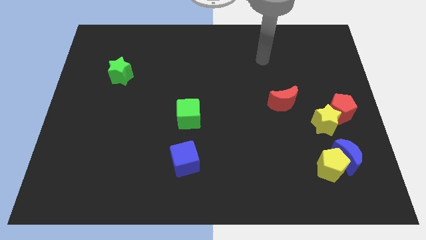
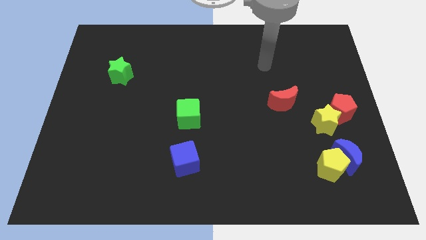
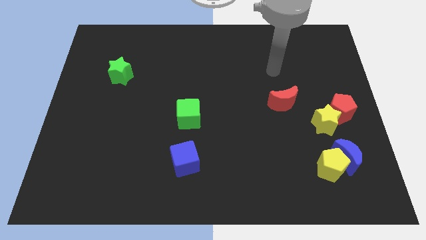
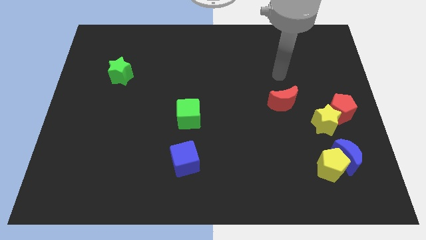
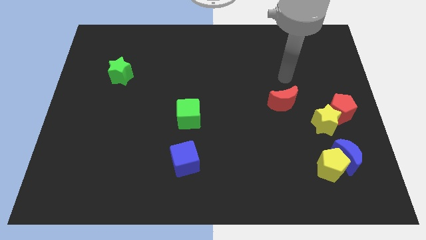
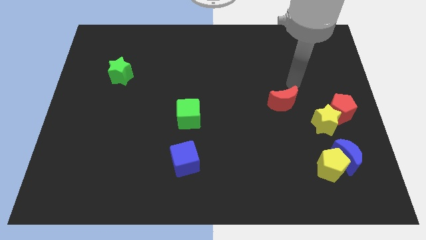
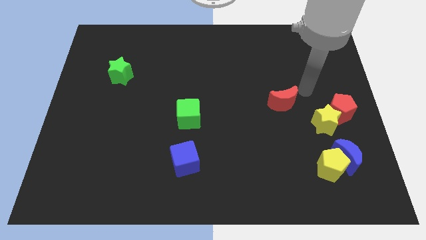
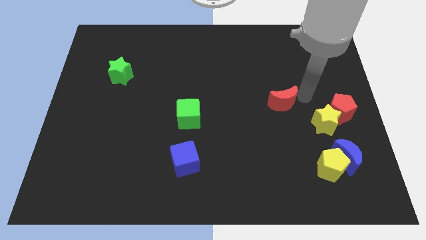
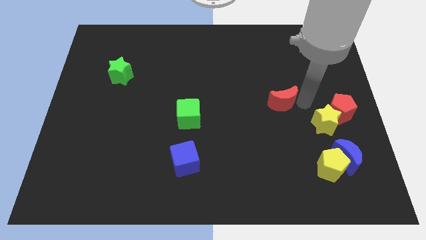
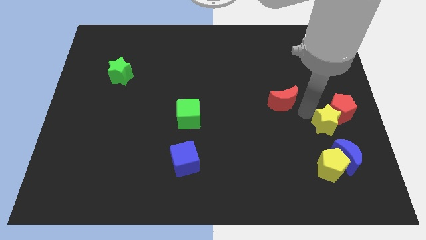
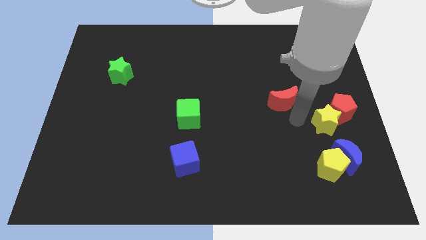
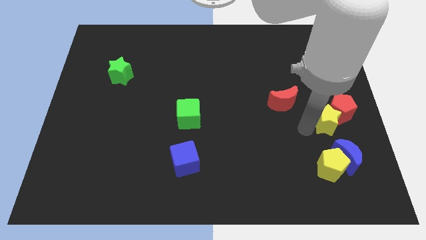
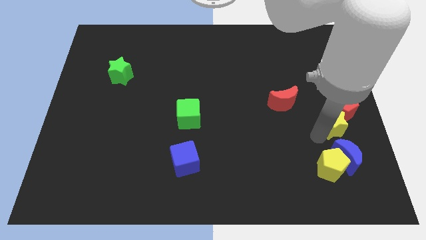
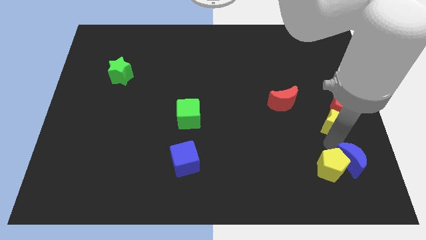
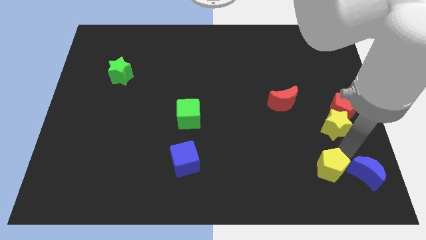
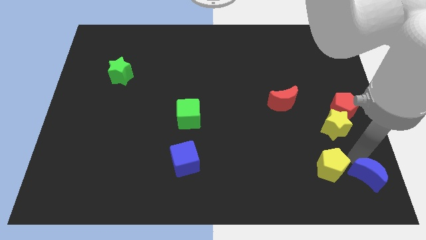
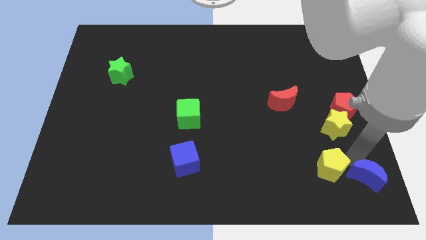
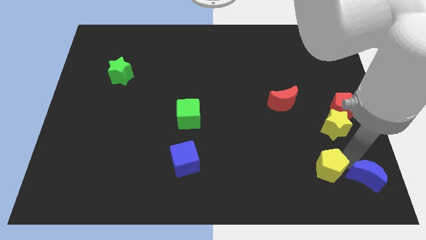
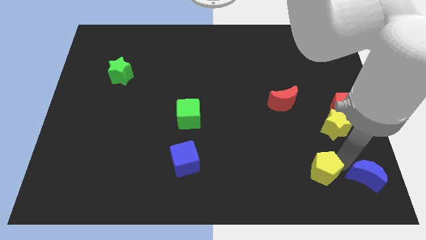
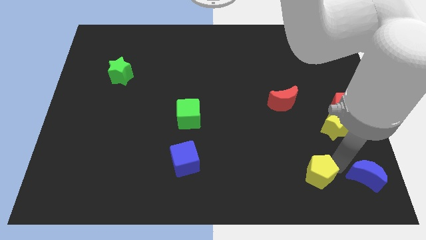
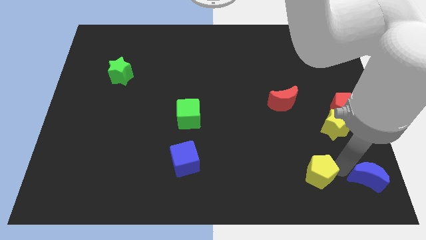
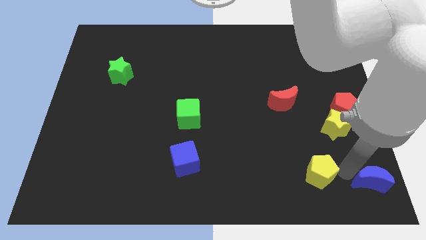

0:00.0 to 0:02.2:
move the yellow pentagon away from the blue moon

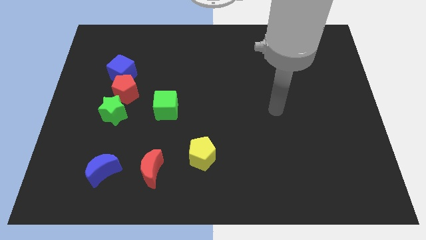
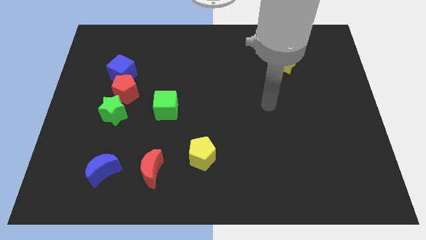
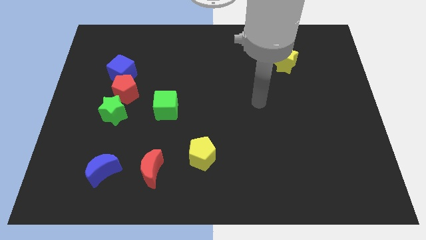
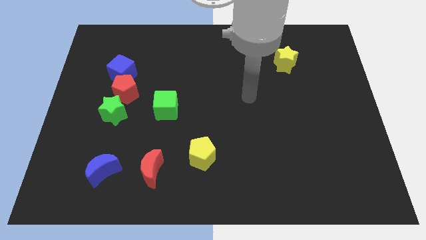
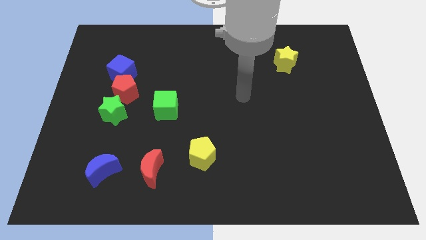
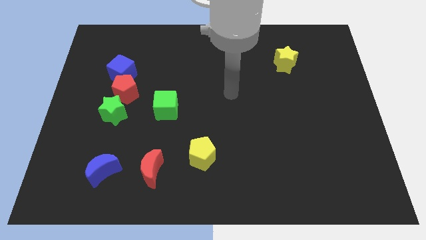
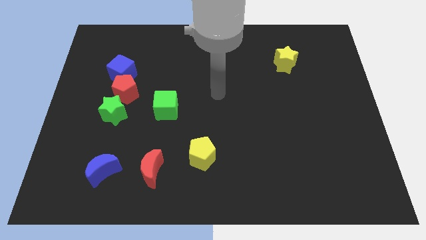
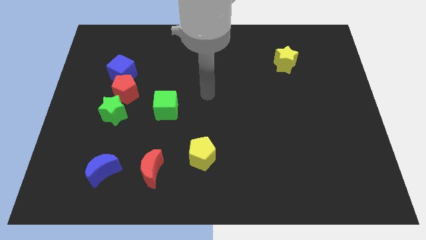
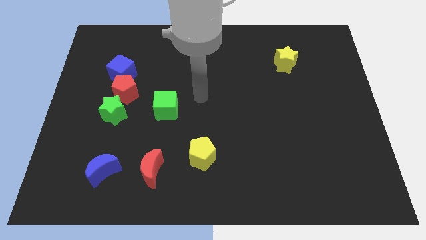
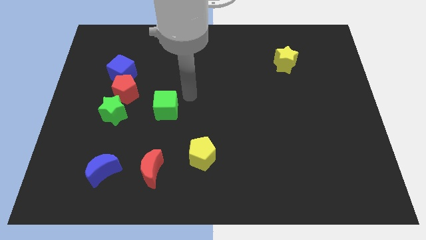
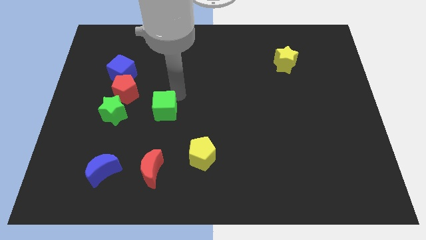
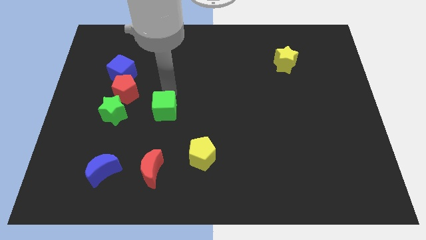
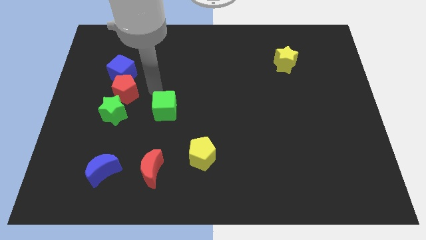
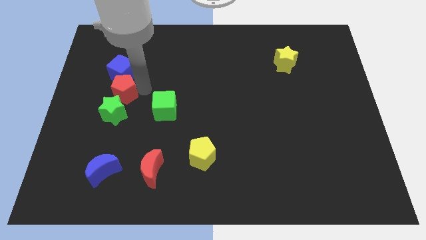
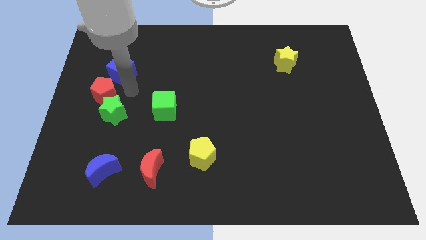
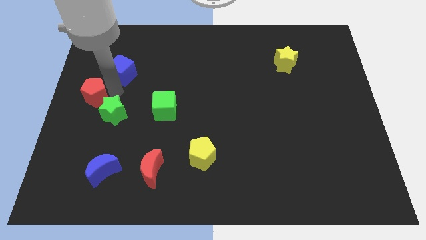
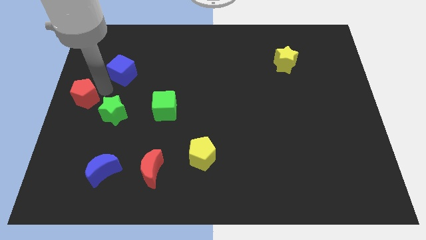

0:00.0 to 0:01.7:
move the blue cube away from the red pentagon

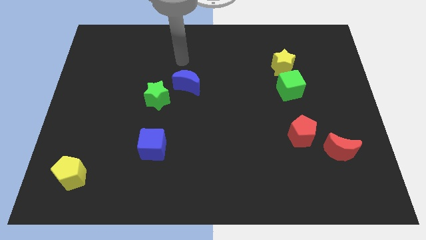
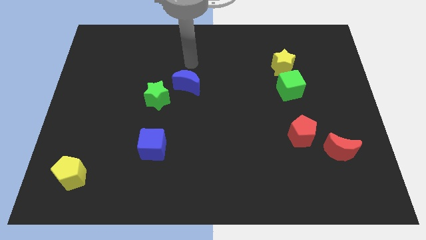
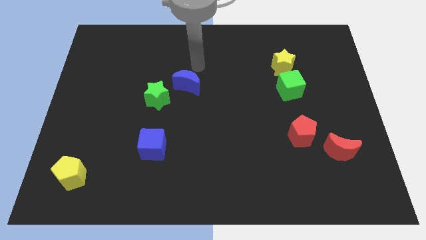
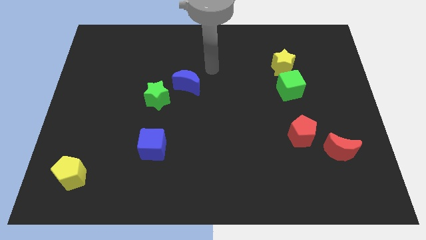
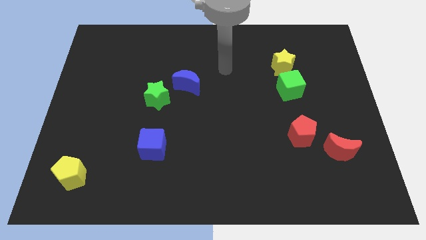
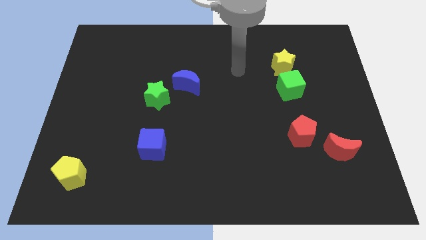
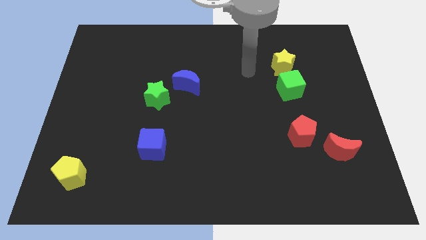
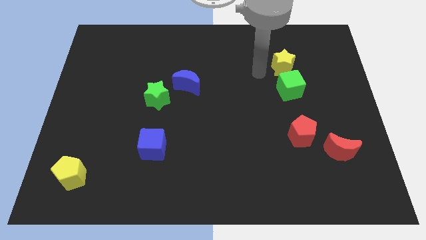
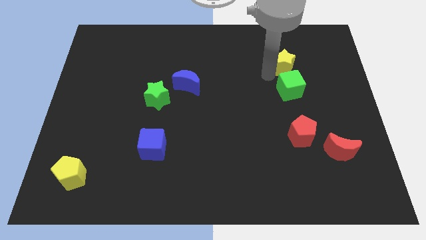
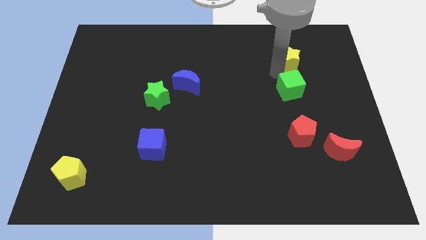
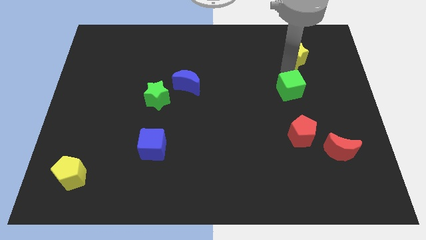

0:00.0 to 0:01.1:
separate the green cube from the yellow star

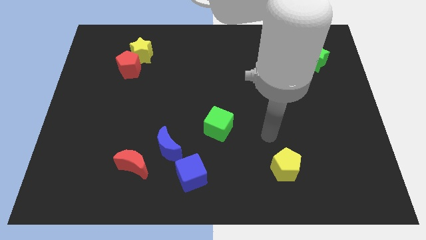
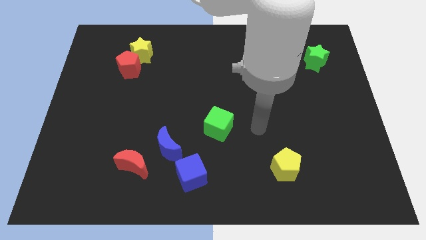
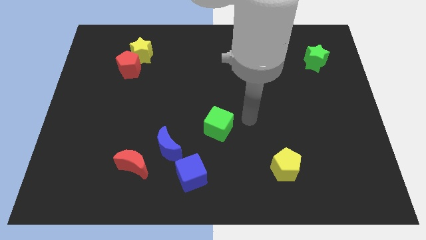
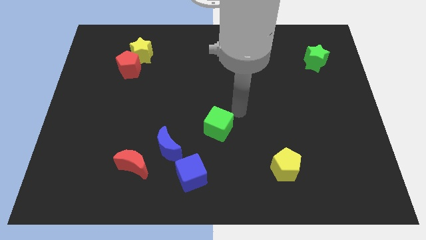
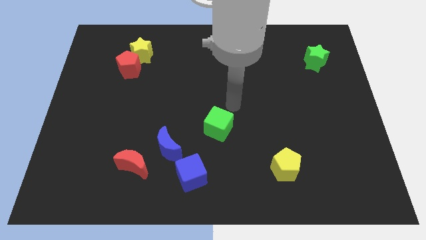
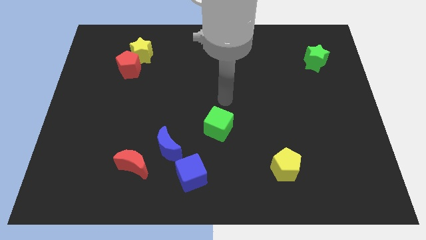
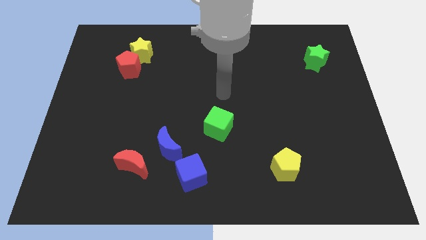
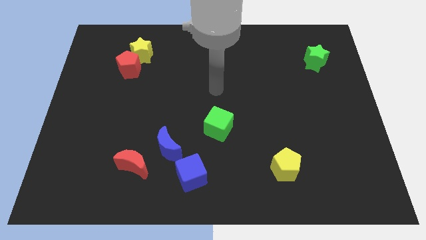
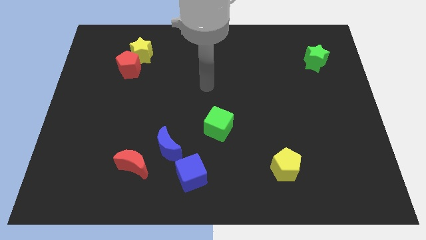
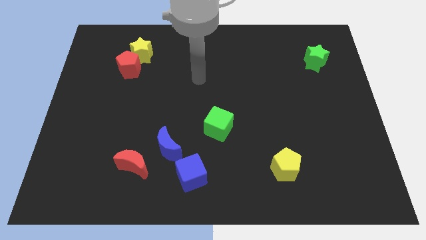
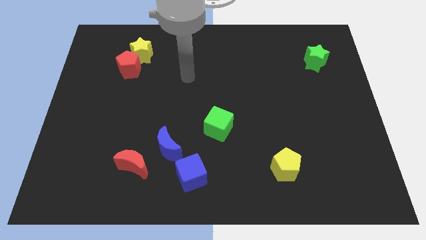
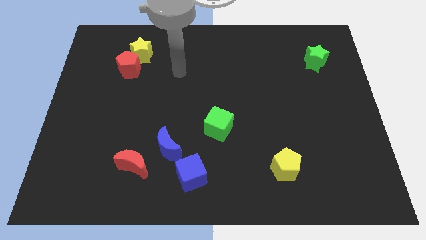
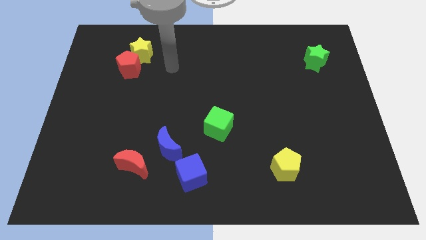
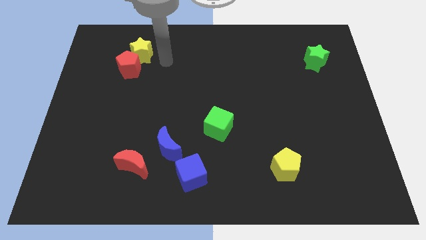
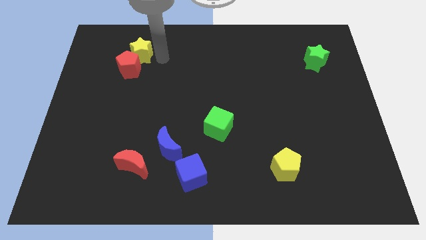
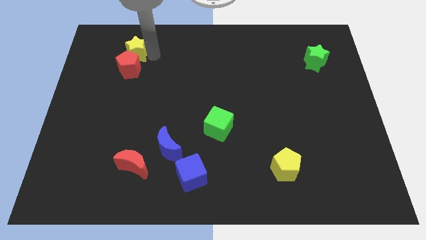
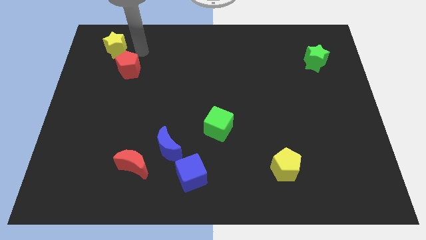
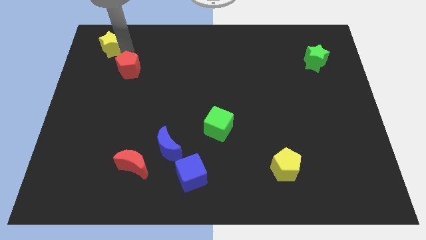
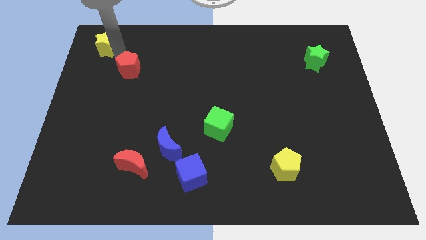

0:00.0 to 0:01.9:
separate the red pentagon from the yellow star

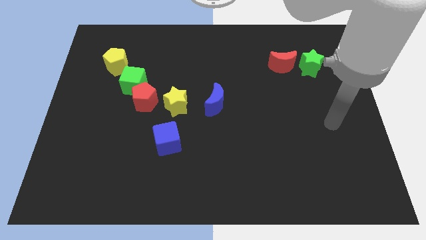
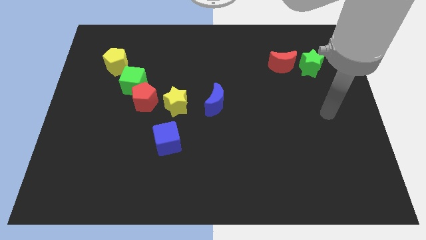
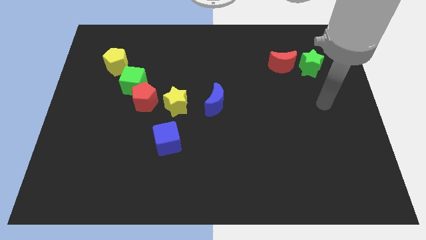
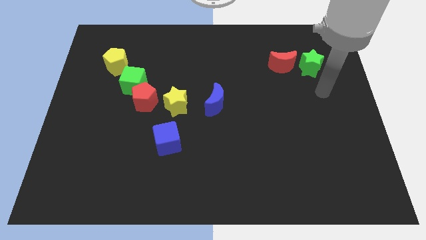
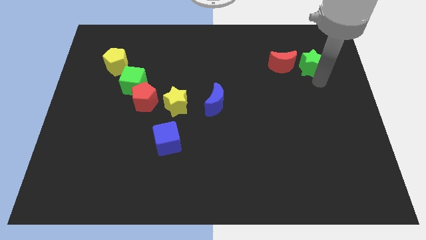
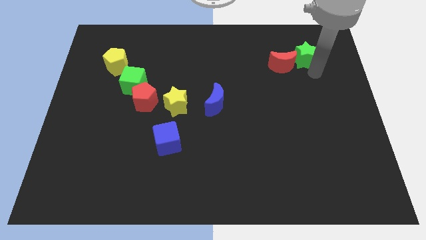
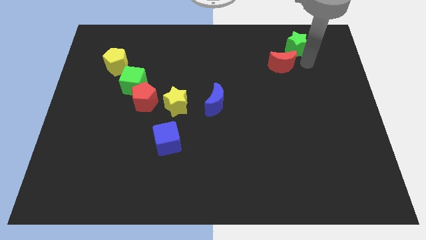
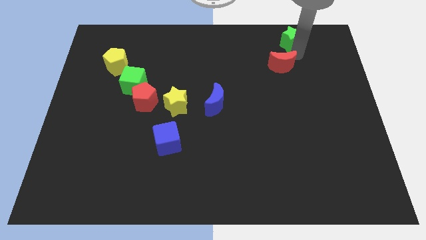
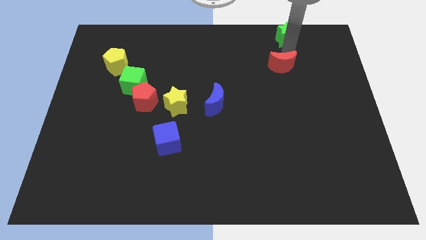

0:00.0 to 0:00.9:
pull the red moon apart from the green star

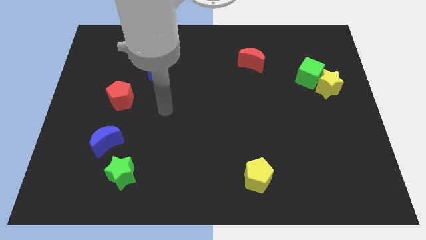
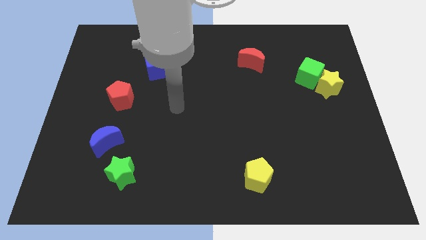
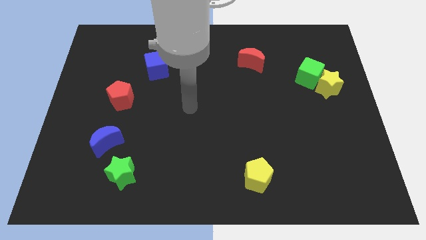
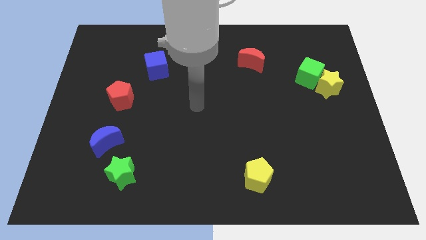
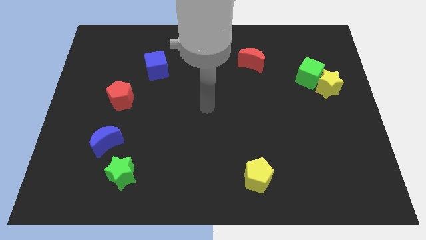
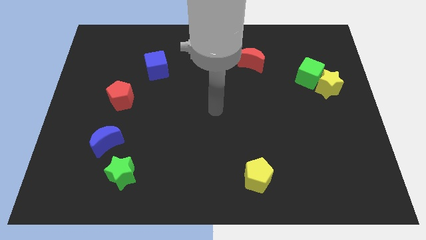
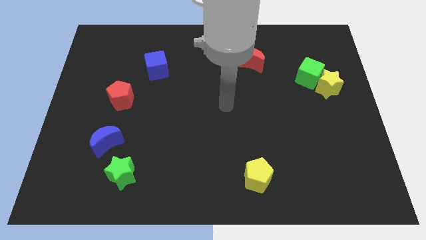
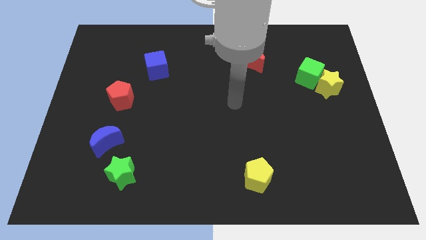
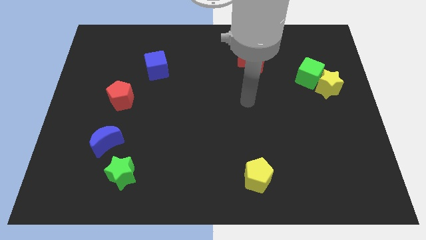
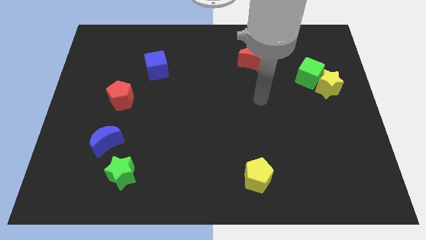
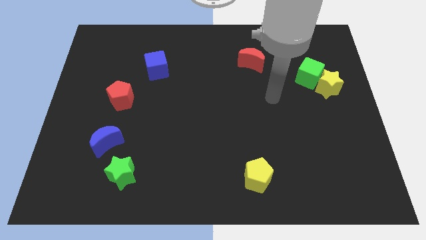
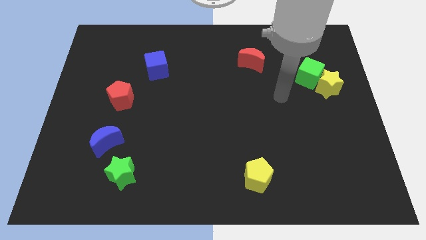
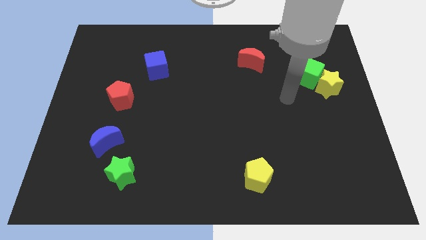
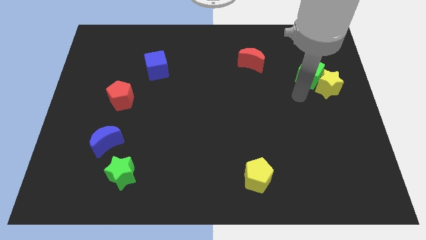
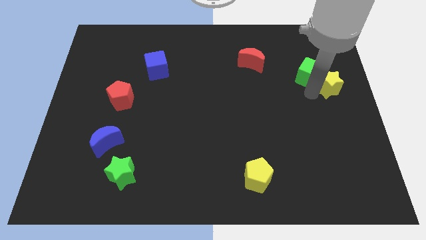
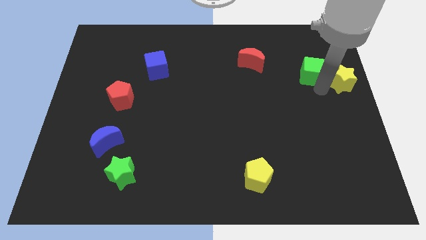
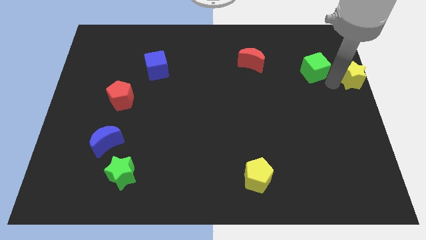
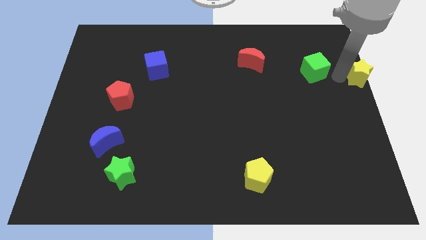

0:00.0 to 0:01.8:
move the green cube away from the yellow star
